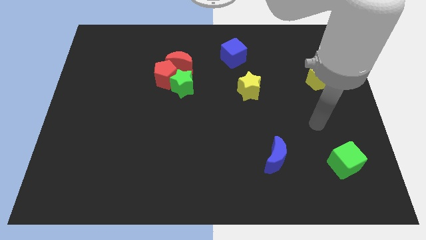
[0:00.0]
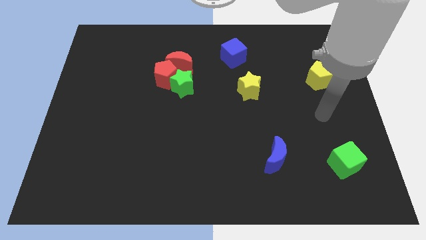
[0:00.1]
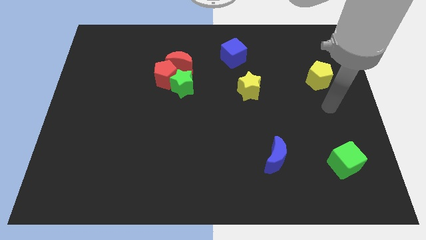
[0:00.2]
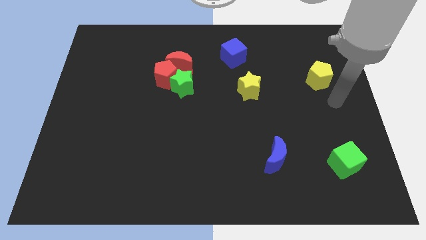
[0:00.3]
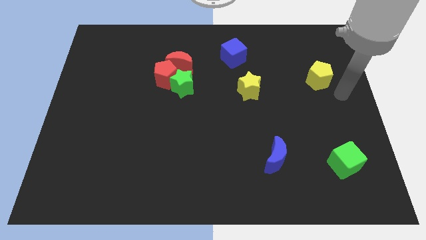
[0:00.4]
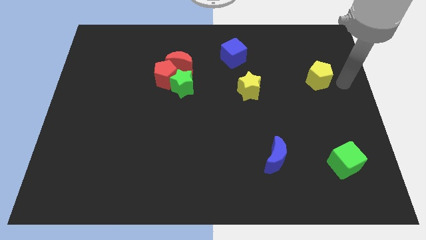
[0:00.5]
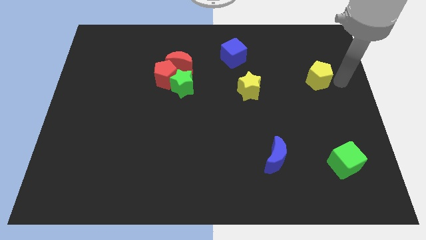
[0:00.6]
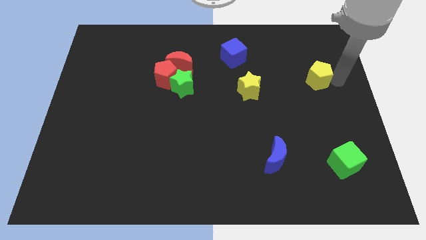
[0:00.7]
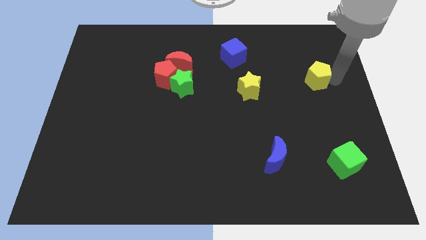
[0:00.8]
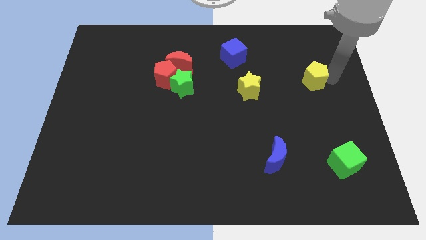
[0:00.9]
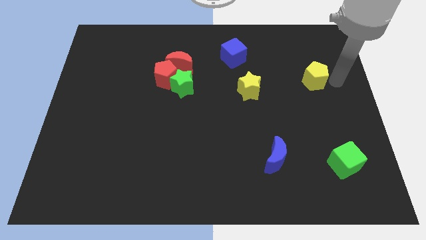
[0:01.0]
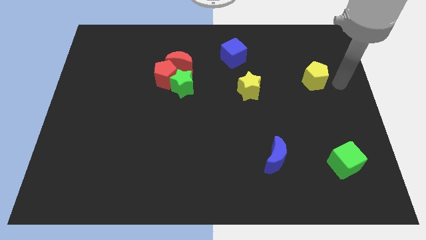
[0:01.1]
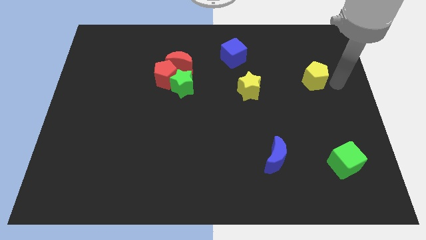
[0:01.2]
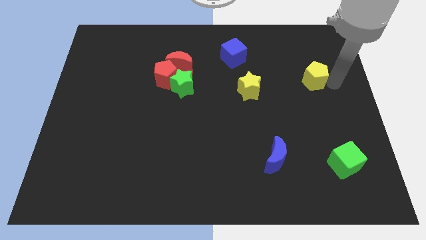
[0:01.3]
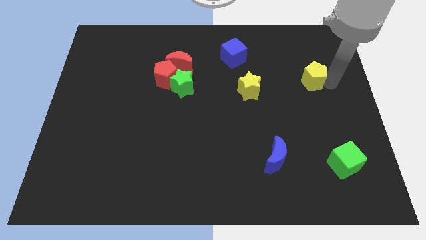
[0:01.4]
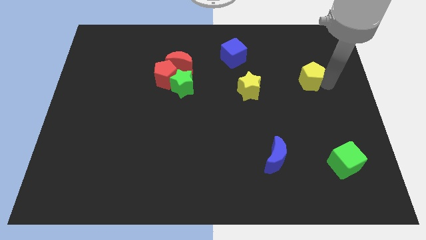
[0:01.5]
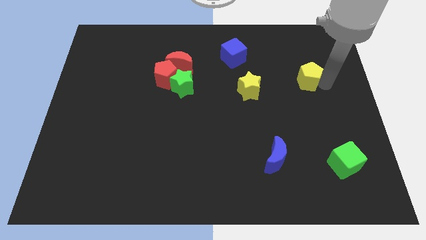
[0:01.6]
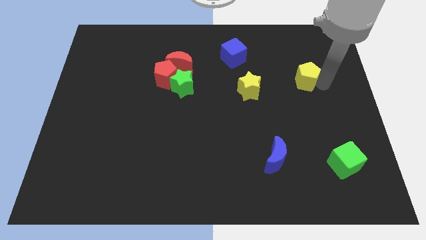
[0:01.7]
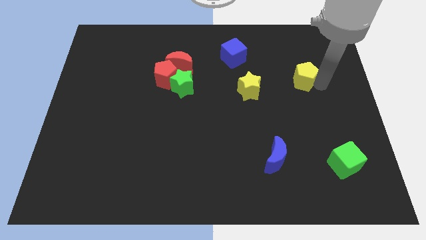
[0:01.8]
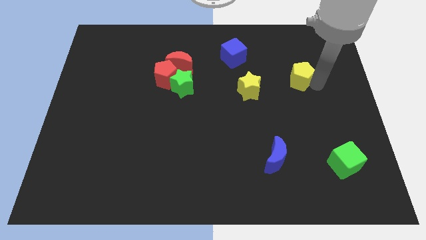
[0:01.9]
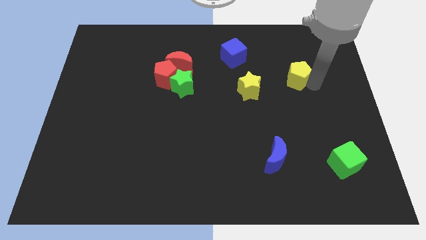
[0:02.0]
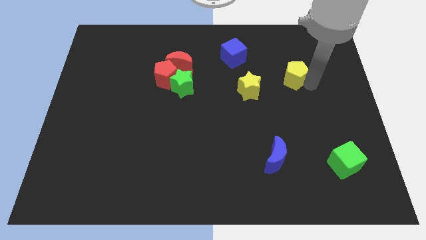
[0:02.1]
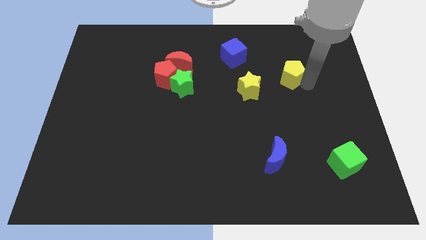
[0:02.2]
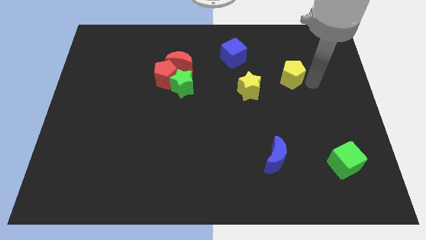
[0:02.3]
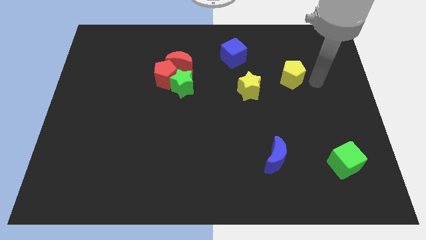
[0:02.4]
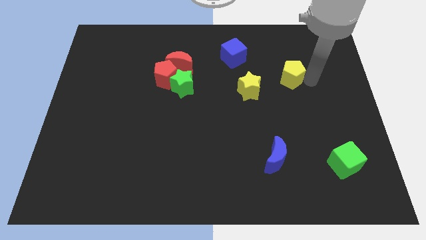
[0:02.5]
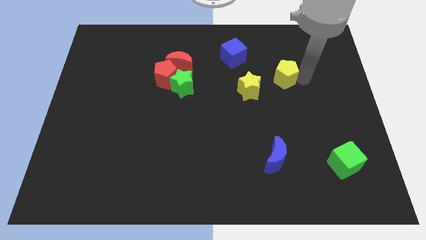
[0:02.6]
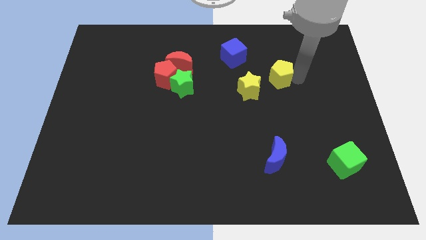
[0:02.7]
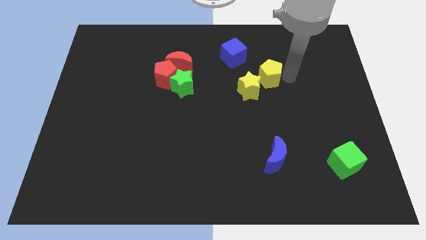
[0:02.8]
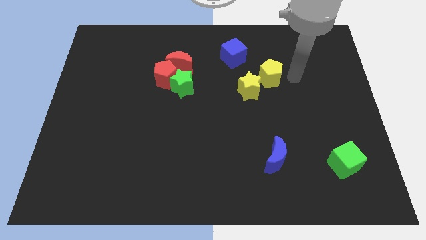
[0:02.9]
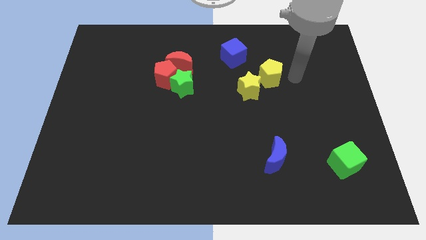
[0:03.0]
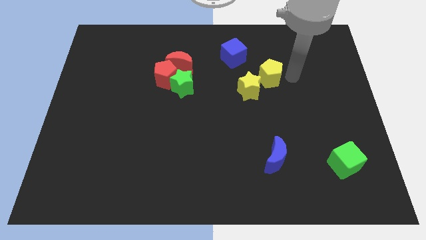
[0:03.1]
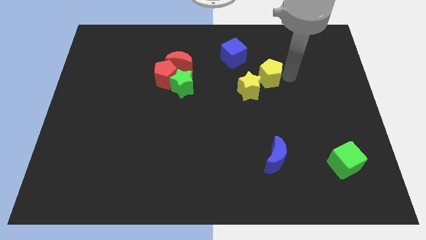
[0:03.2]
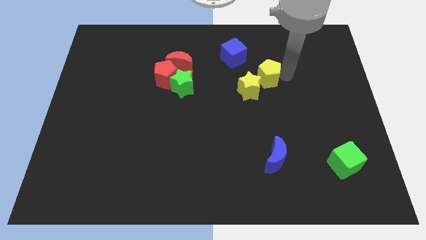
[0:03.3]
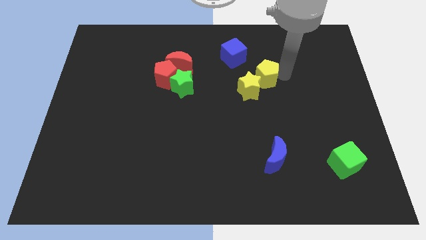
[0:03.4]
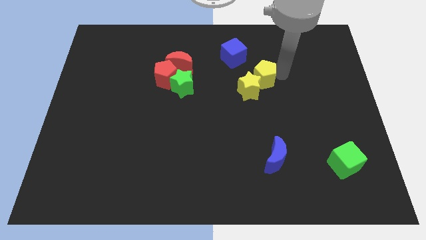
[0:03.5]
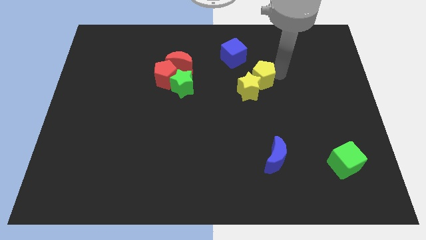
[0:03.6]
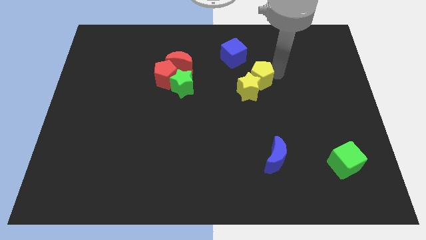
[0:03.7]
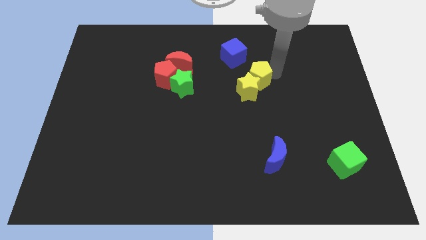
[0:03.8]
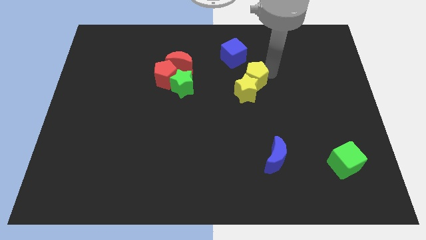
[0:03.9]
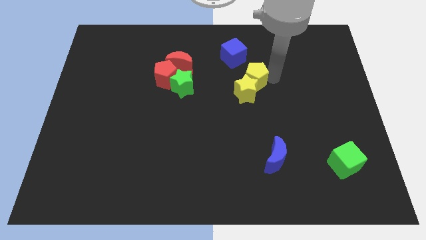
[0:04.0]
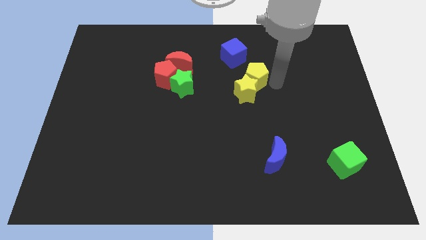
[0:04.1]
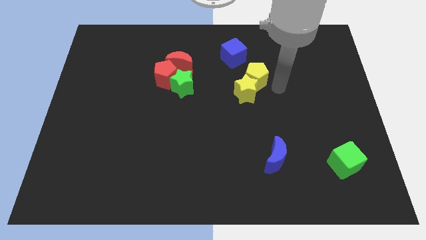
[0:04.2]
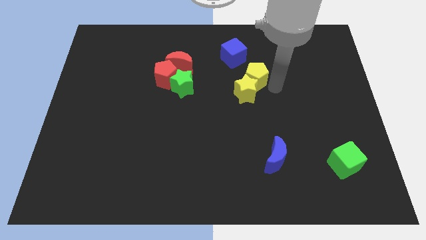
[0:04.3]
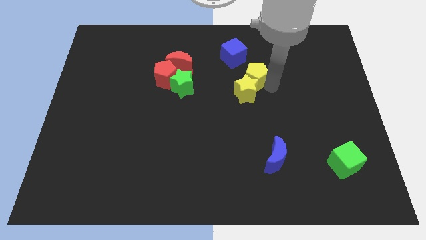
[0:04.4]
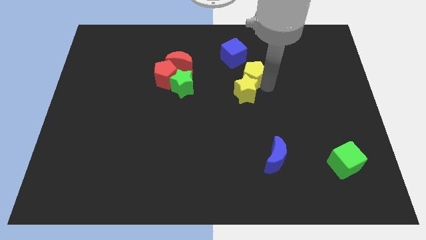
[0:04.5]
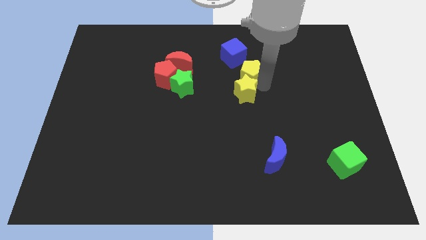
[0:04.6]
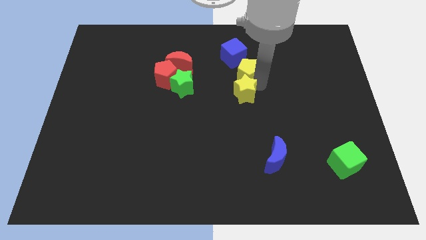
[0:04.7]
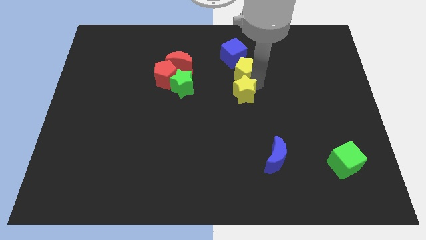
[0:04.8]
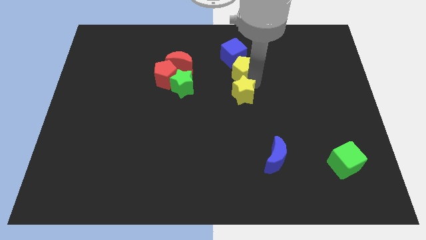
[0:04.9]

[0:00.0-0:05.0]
slide the yellow pentagon just right of the red moon

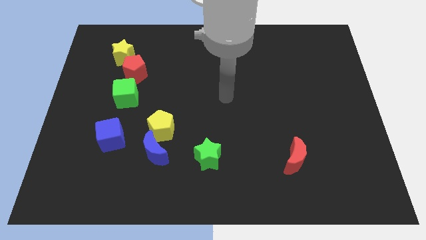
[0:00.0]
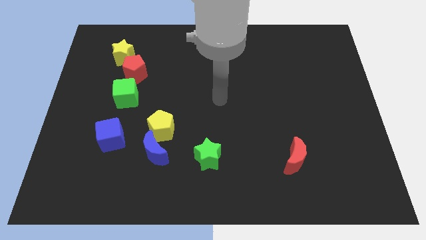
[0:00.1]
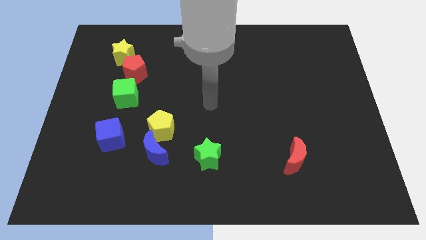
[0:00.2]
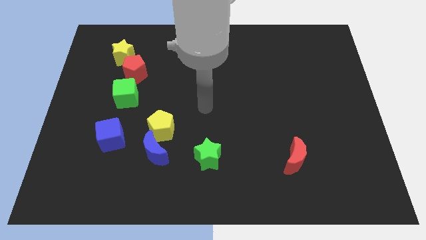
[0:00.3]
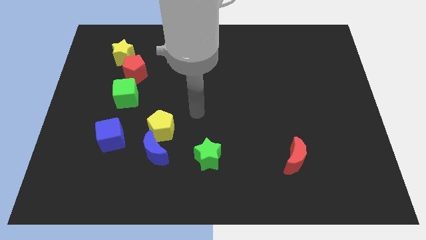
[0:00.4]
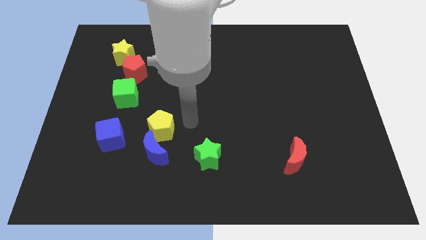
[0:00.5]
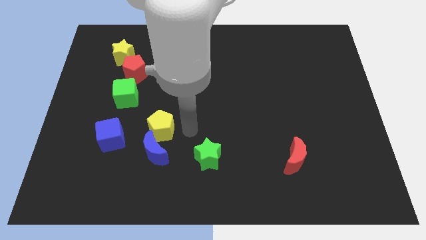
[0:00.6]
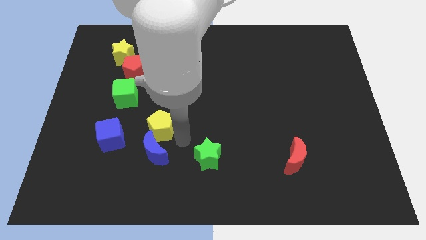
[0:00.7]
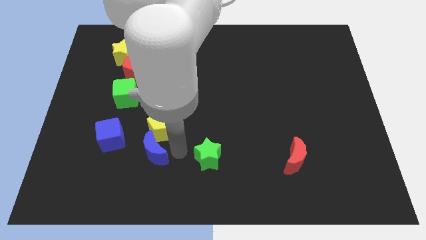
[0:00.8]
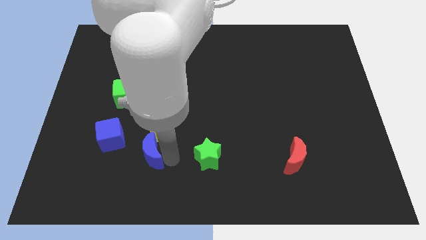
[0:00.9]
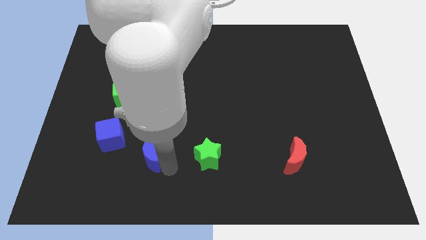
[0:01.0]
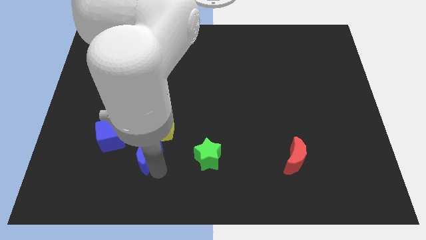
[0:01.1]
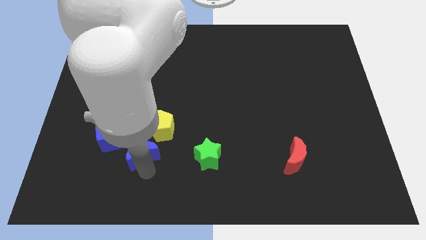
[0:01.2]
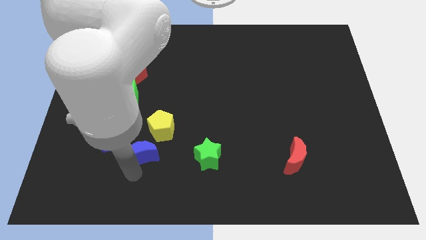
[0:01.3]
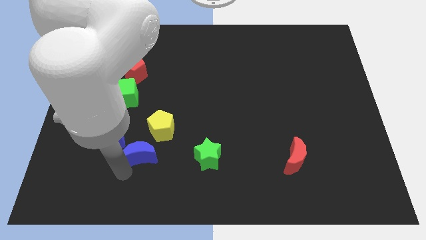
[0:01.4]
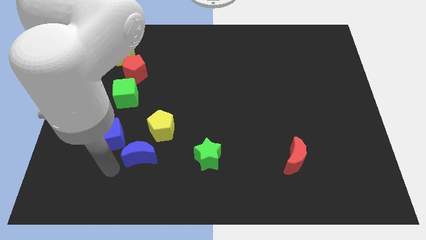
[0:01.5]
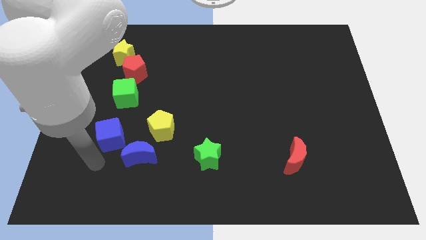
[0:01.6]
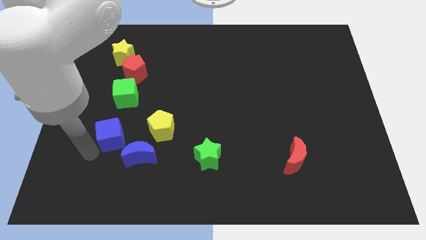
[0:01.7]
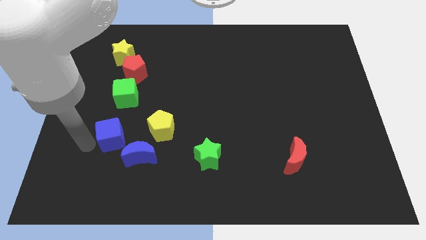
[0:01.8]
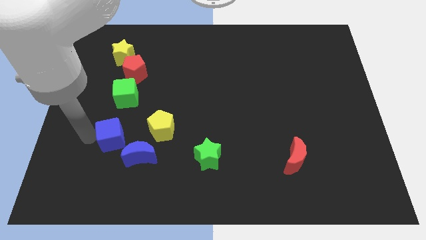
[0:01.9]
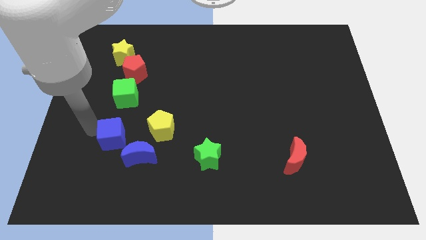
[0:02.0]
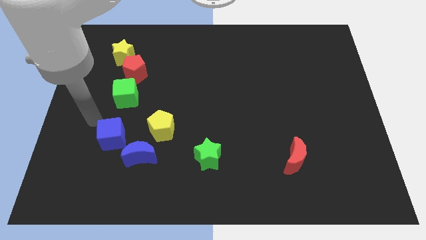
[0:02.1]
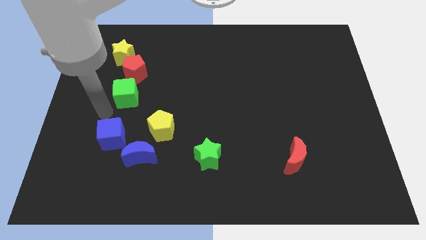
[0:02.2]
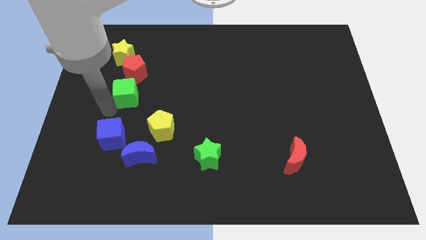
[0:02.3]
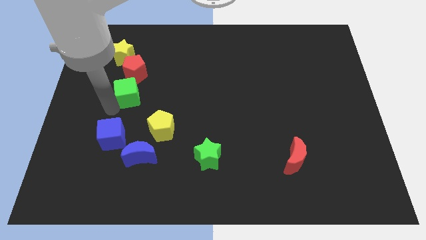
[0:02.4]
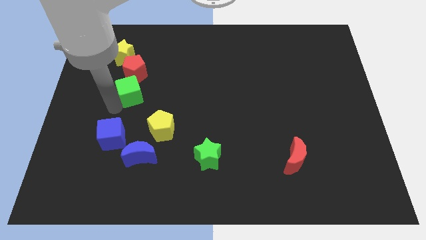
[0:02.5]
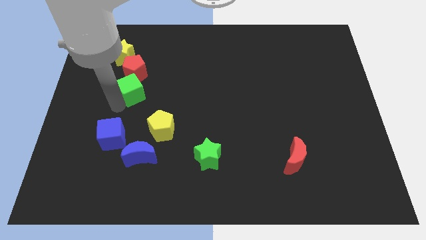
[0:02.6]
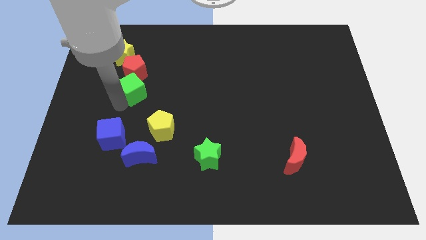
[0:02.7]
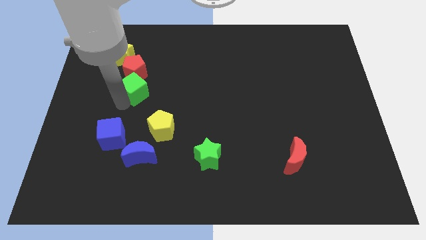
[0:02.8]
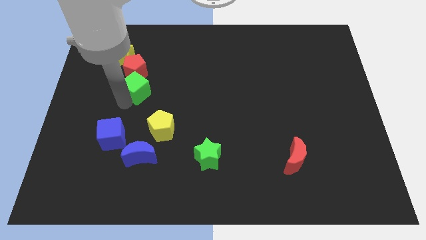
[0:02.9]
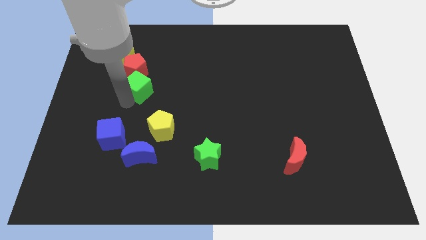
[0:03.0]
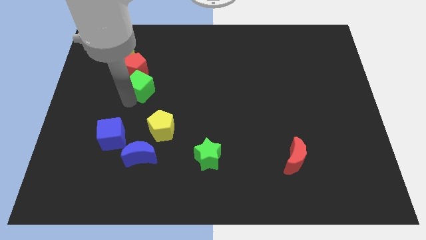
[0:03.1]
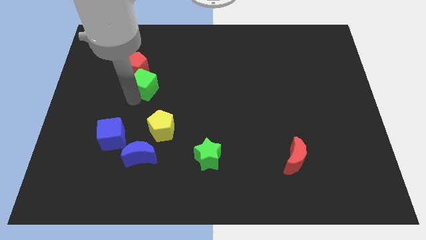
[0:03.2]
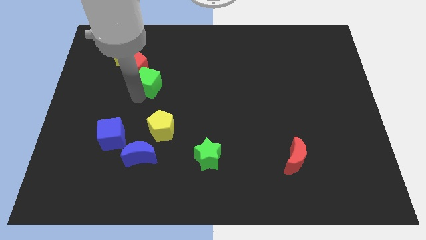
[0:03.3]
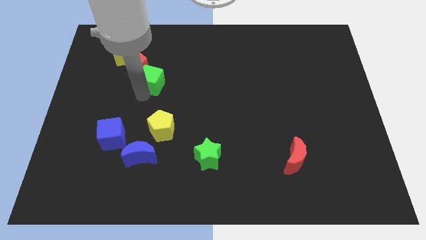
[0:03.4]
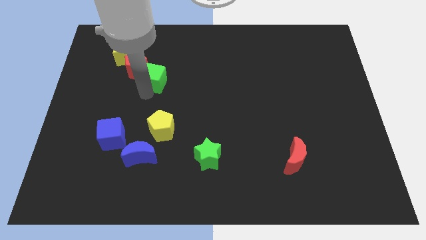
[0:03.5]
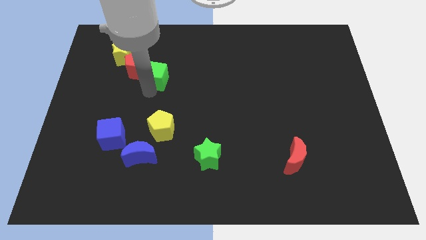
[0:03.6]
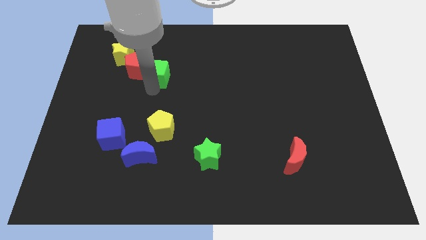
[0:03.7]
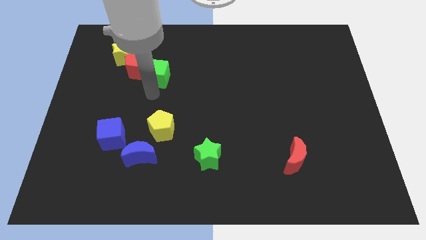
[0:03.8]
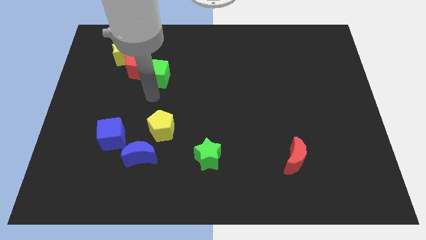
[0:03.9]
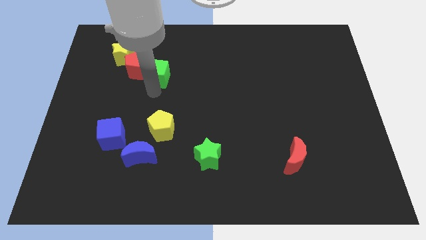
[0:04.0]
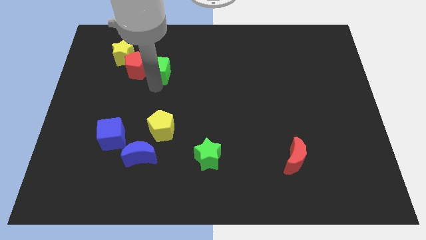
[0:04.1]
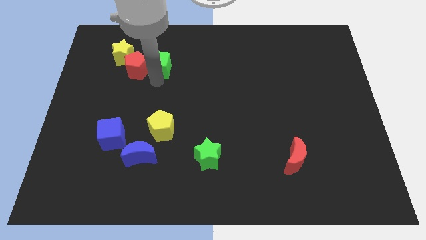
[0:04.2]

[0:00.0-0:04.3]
put the green cube to the right of the yellow star
